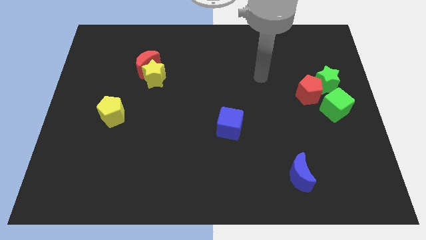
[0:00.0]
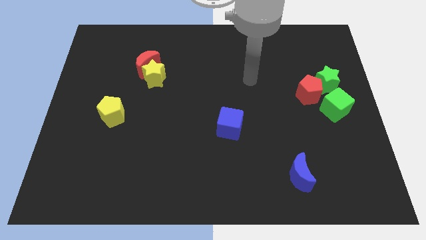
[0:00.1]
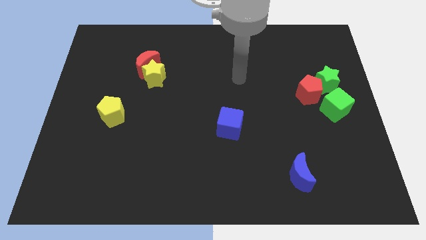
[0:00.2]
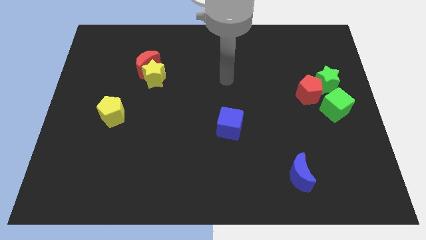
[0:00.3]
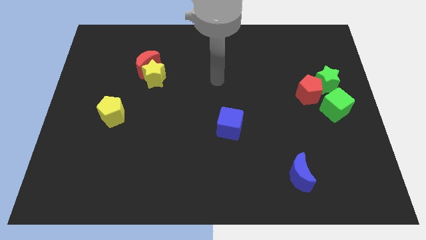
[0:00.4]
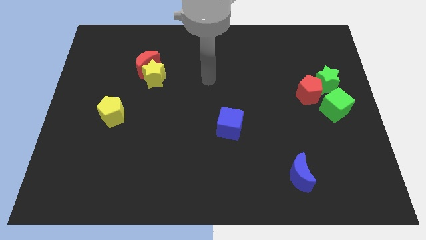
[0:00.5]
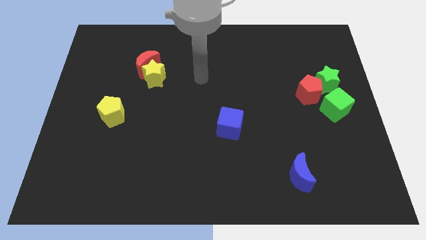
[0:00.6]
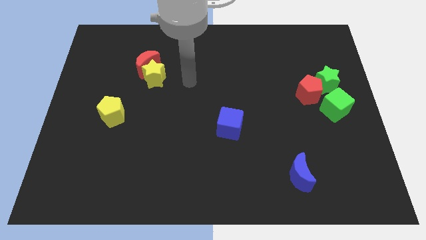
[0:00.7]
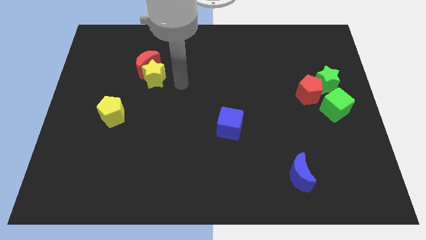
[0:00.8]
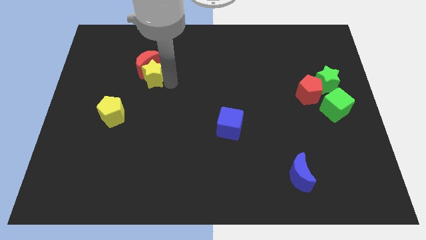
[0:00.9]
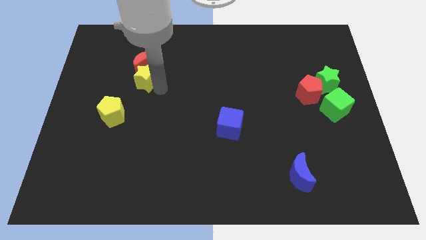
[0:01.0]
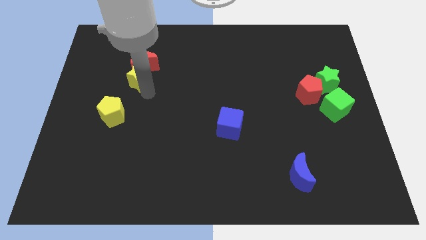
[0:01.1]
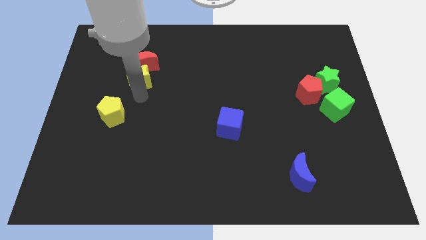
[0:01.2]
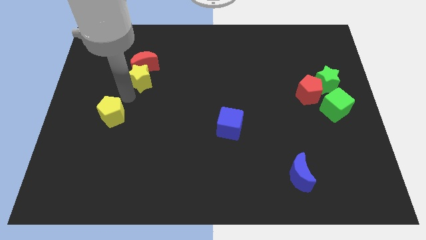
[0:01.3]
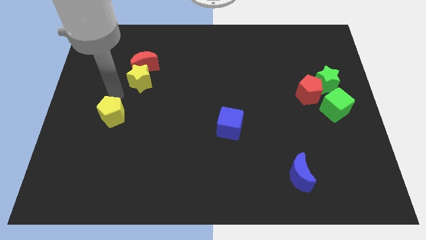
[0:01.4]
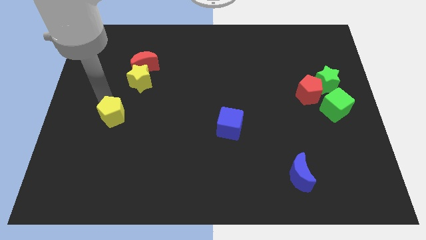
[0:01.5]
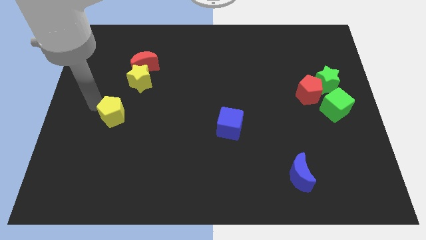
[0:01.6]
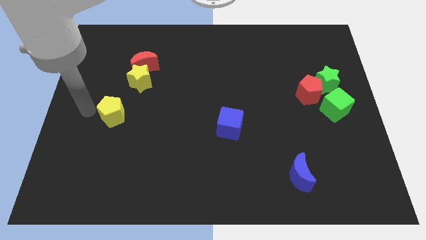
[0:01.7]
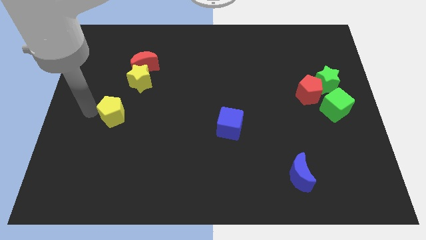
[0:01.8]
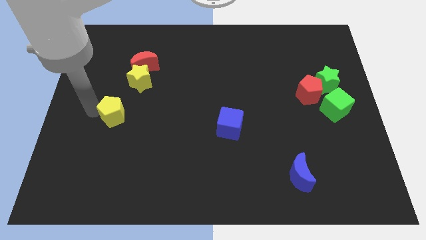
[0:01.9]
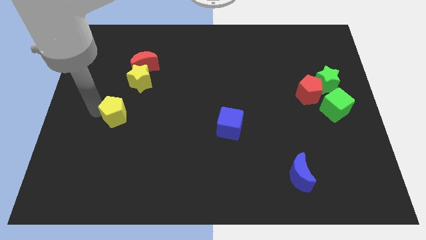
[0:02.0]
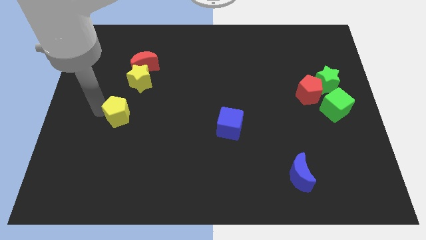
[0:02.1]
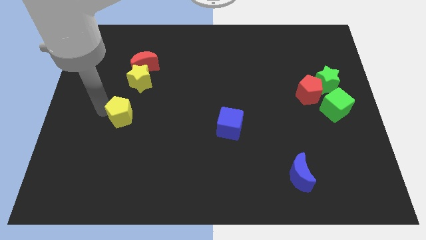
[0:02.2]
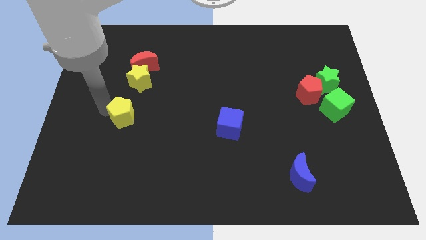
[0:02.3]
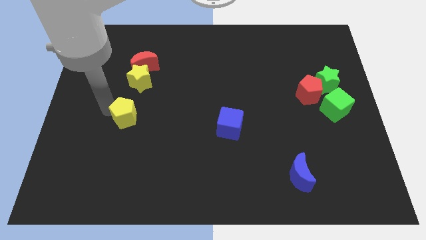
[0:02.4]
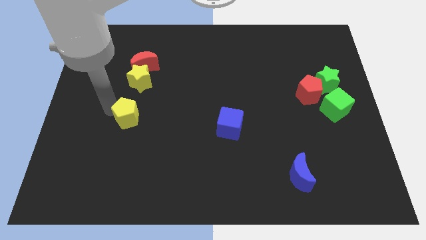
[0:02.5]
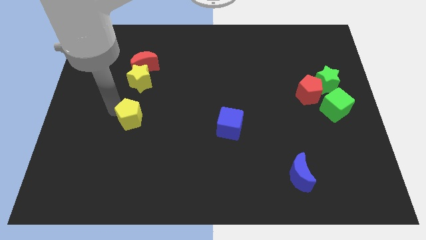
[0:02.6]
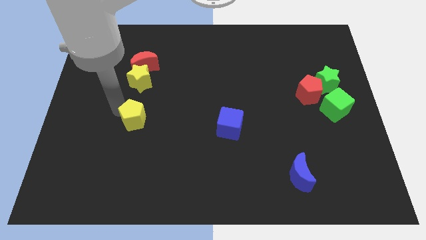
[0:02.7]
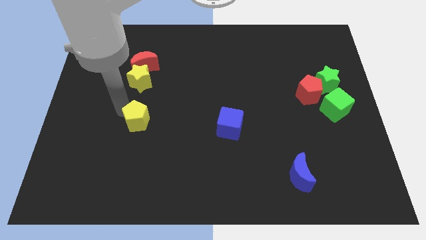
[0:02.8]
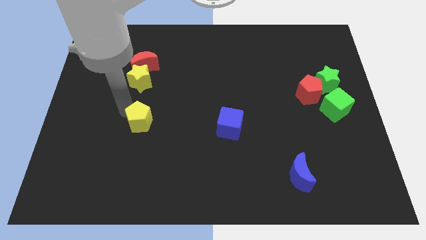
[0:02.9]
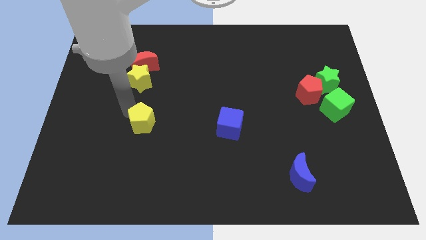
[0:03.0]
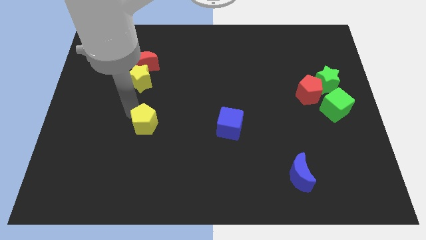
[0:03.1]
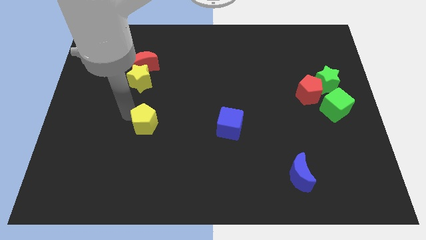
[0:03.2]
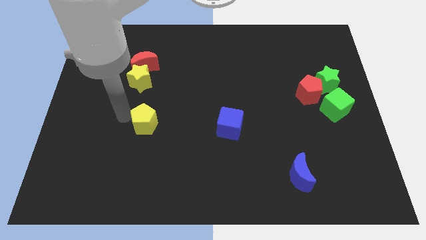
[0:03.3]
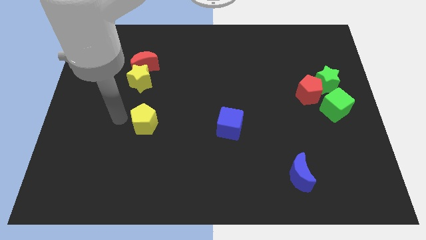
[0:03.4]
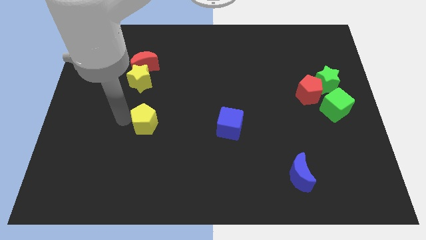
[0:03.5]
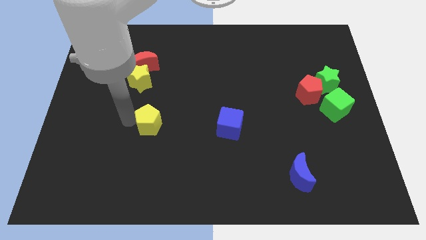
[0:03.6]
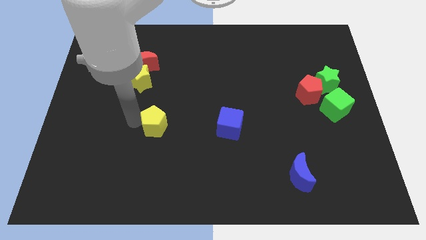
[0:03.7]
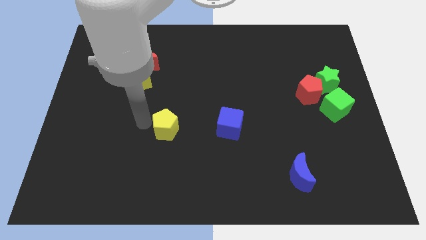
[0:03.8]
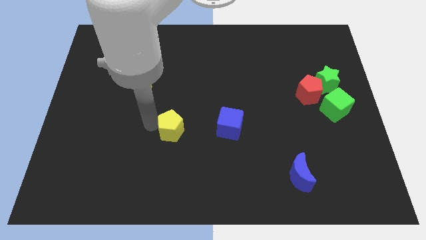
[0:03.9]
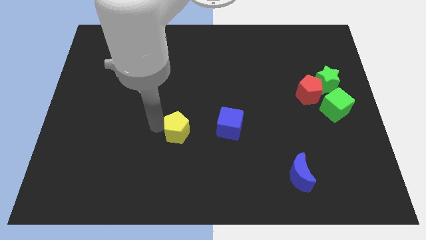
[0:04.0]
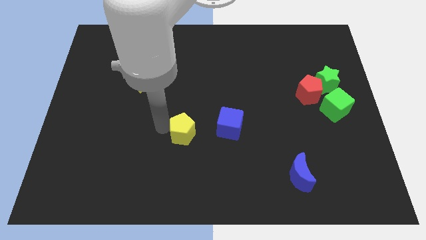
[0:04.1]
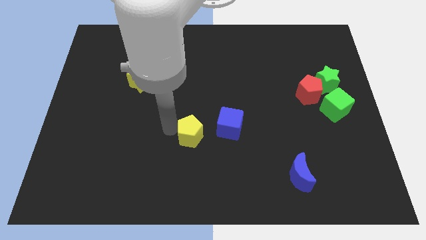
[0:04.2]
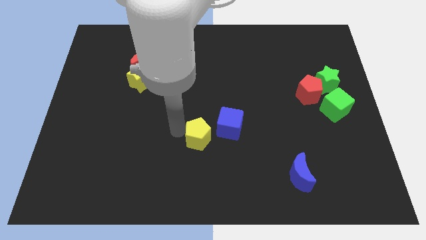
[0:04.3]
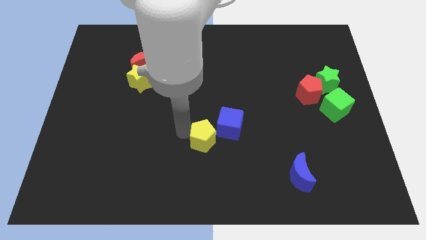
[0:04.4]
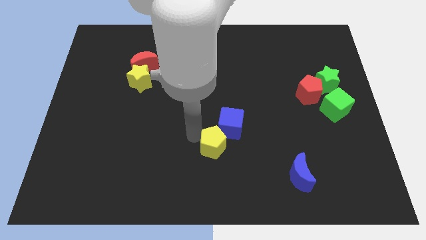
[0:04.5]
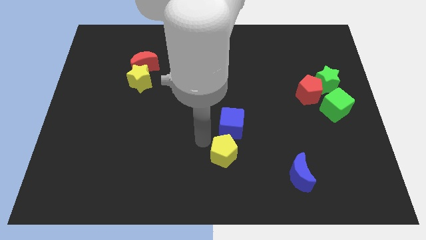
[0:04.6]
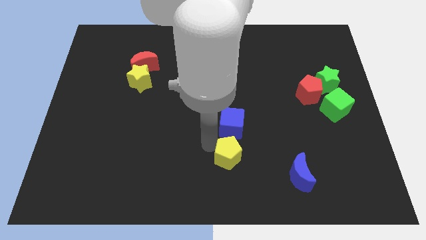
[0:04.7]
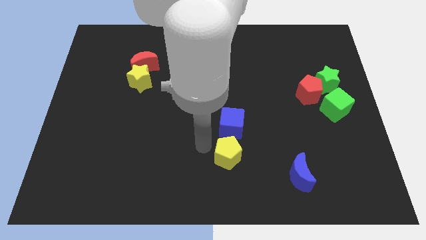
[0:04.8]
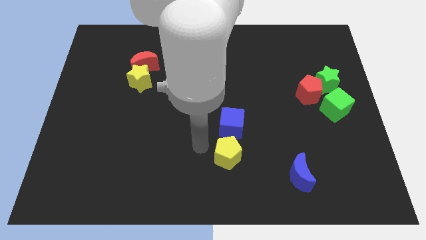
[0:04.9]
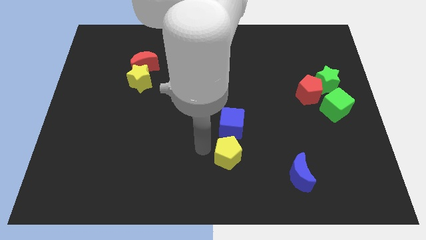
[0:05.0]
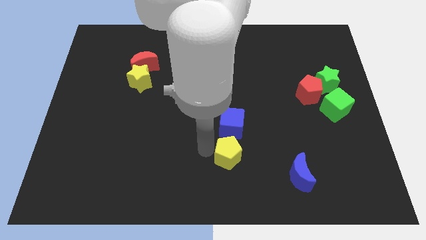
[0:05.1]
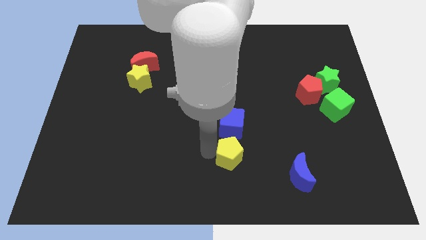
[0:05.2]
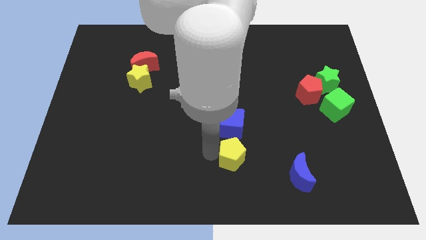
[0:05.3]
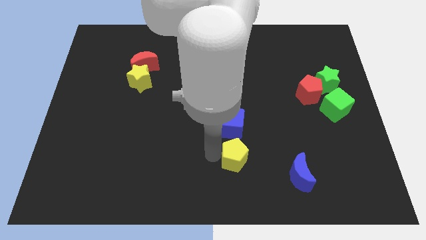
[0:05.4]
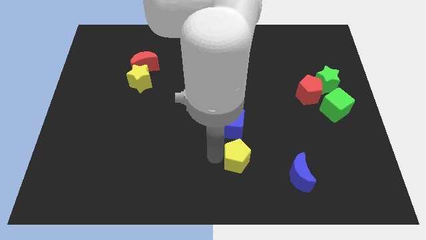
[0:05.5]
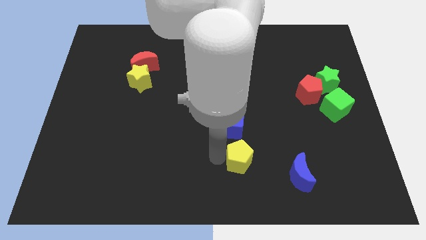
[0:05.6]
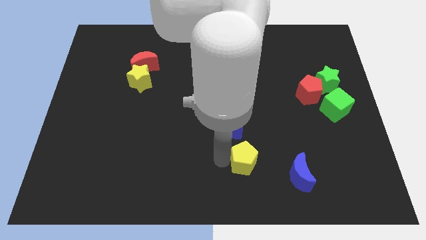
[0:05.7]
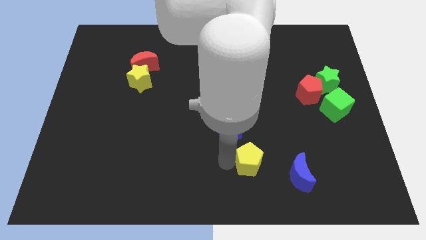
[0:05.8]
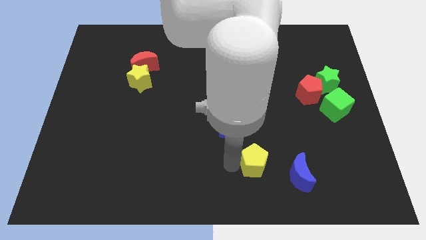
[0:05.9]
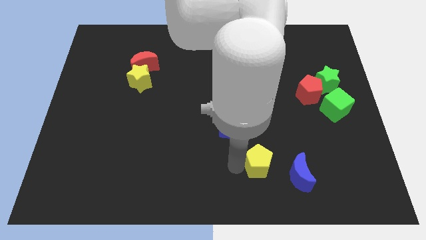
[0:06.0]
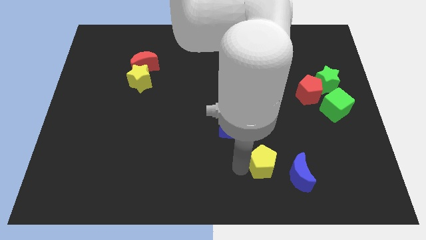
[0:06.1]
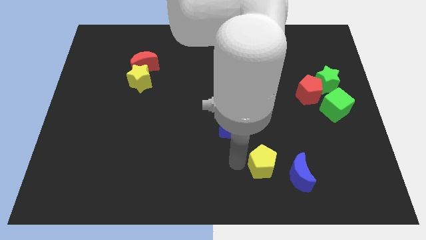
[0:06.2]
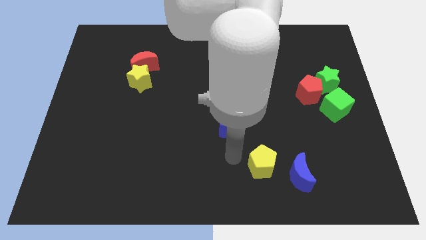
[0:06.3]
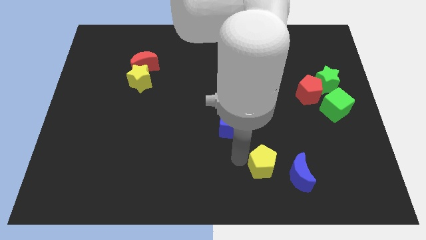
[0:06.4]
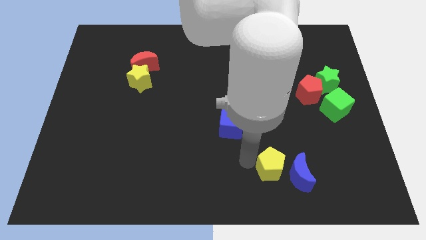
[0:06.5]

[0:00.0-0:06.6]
put the yellow pentagon towards the blue moon

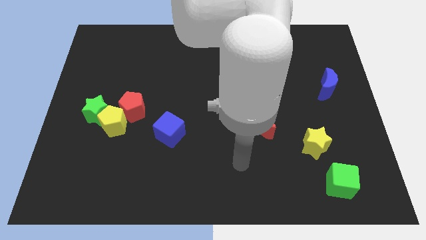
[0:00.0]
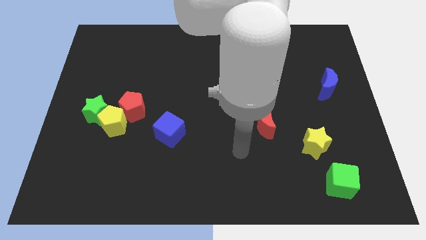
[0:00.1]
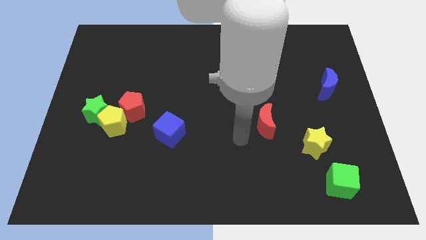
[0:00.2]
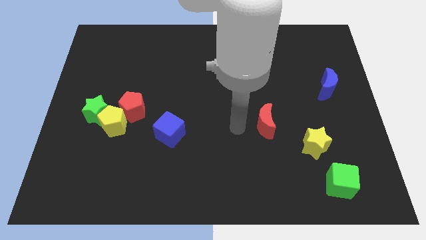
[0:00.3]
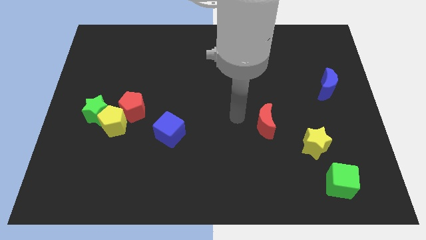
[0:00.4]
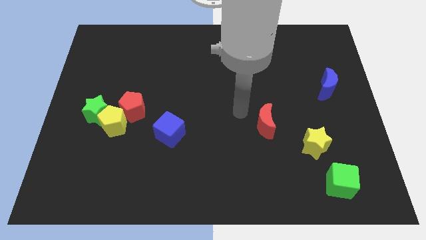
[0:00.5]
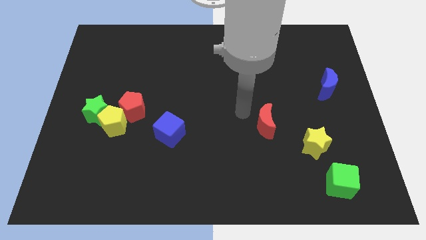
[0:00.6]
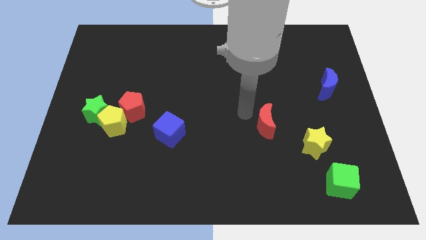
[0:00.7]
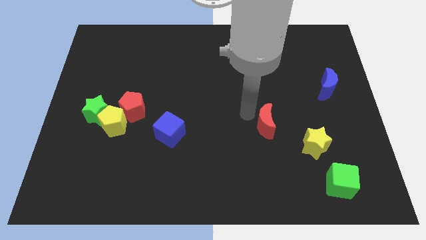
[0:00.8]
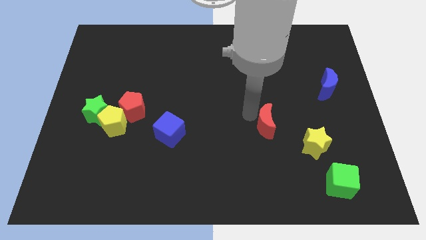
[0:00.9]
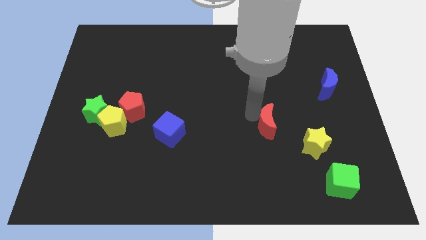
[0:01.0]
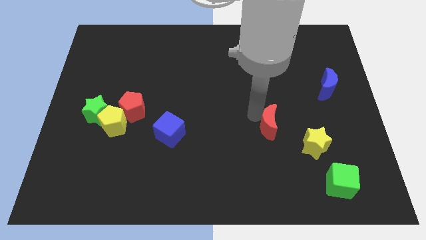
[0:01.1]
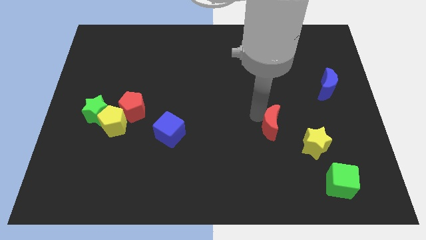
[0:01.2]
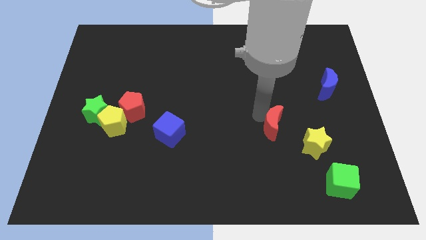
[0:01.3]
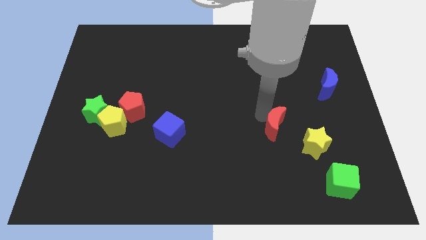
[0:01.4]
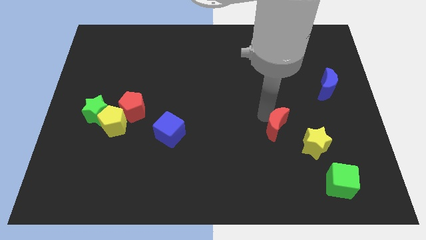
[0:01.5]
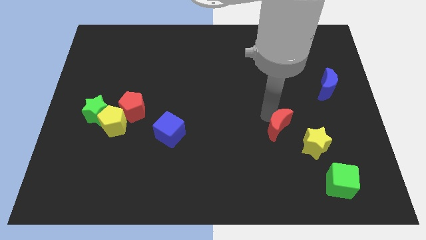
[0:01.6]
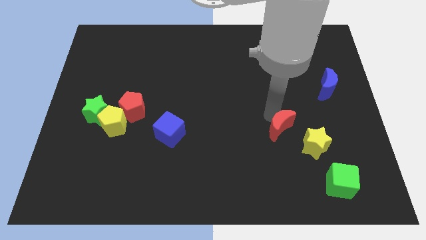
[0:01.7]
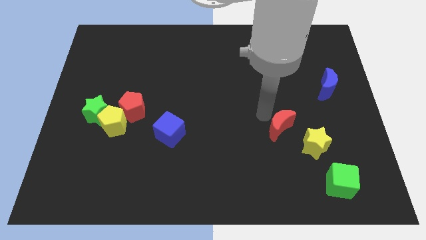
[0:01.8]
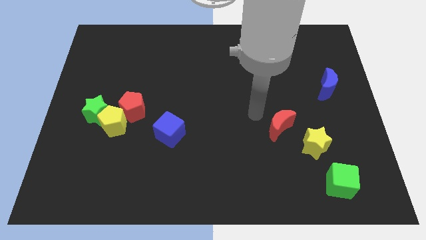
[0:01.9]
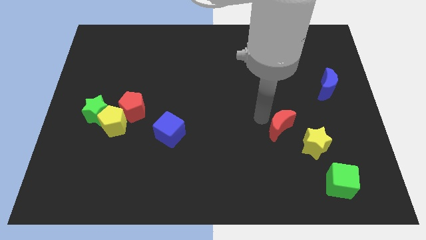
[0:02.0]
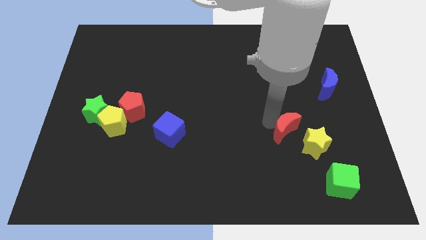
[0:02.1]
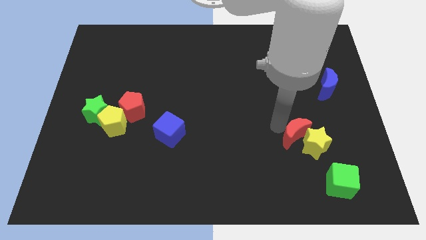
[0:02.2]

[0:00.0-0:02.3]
slide the red moon next to the yellow star
